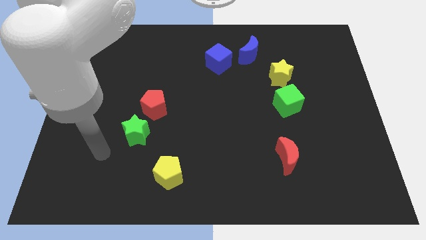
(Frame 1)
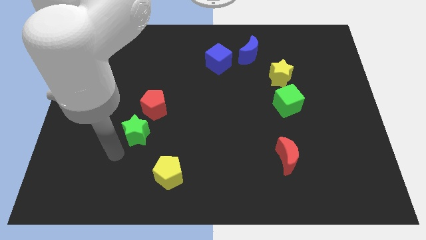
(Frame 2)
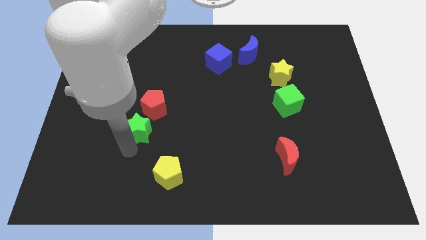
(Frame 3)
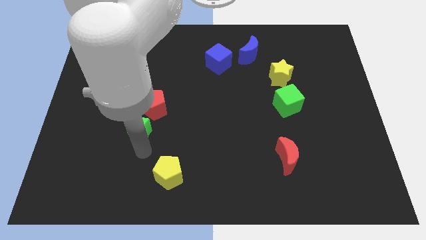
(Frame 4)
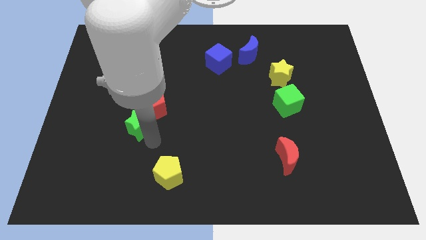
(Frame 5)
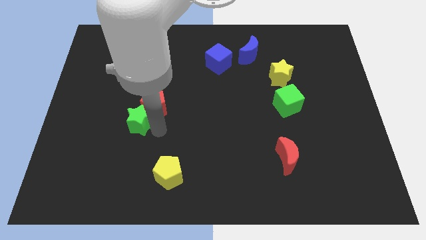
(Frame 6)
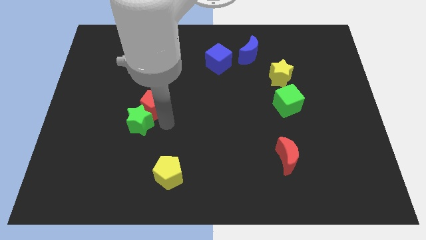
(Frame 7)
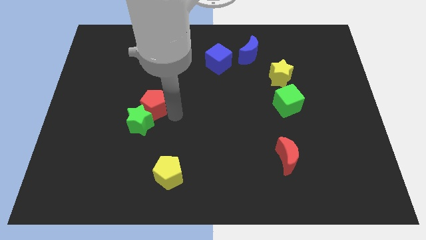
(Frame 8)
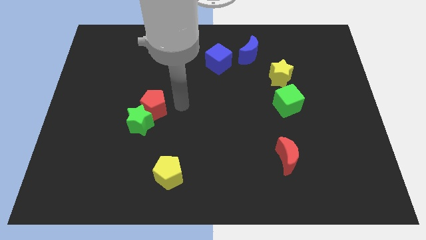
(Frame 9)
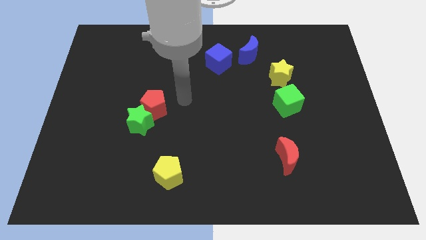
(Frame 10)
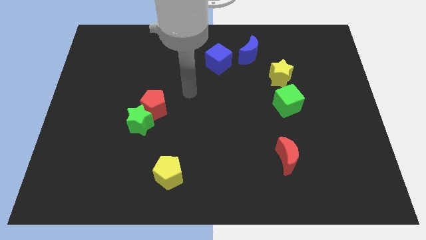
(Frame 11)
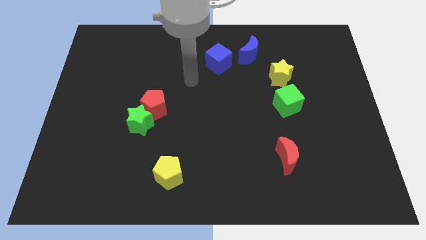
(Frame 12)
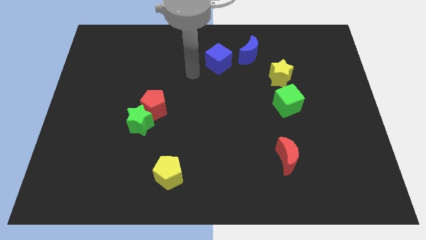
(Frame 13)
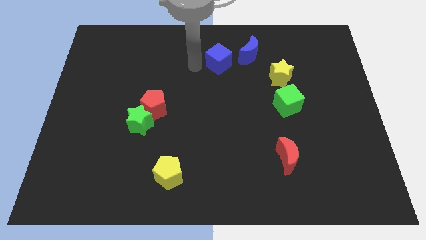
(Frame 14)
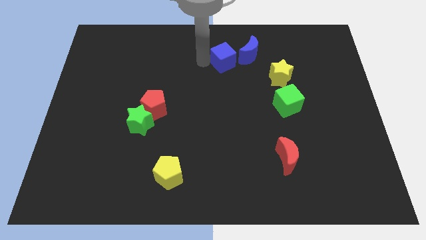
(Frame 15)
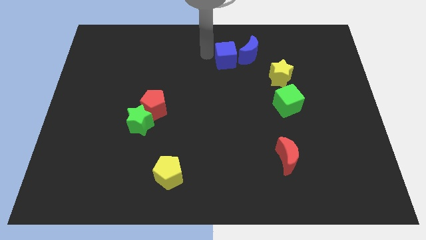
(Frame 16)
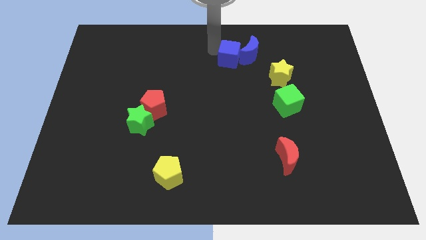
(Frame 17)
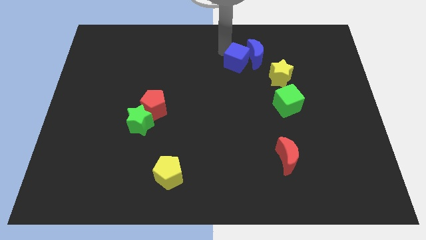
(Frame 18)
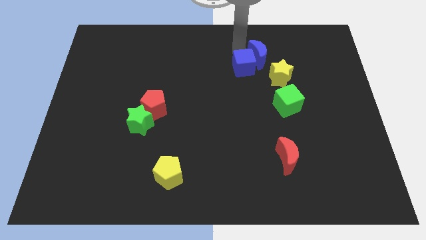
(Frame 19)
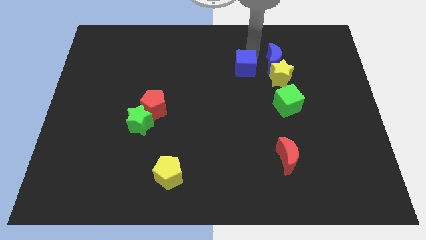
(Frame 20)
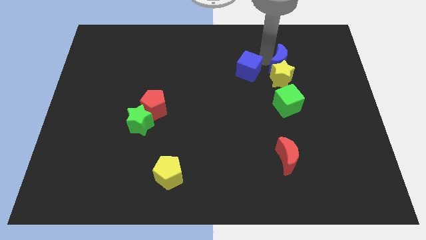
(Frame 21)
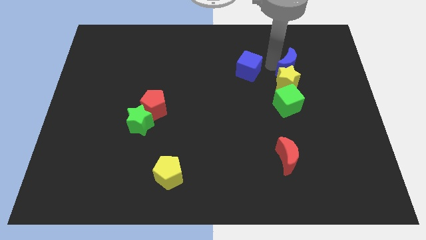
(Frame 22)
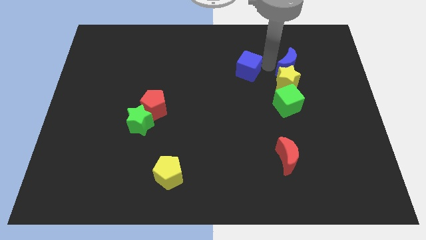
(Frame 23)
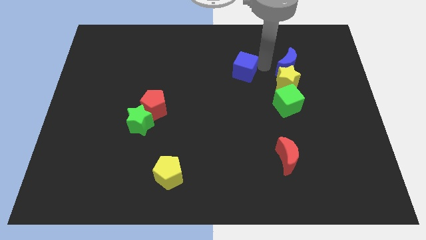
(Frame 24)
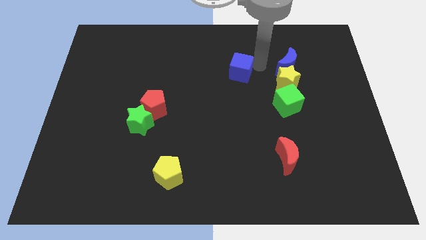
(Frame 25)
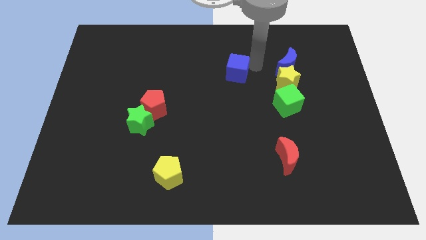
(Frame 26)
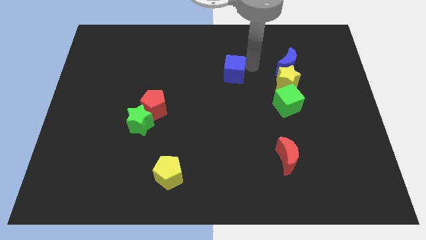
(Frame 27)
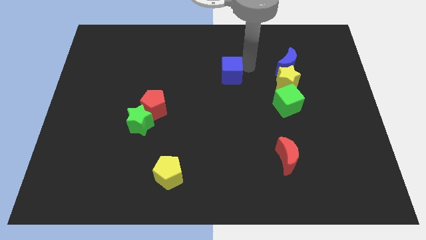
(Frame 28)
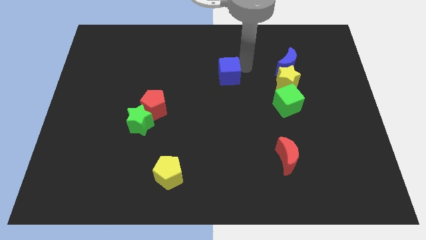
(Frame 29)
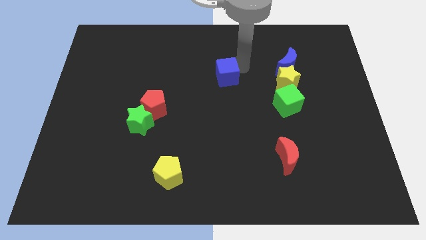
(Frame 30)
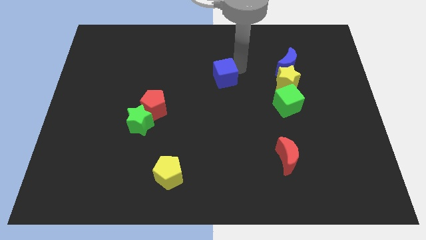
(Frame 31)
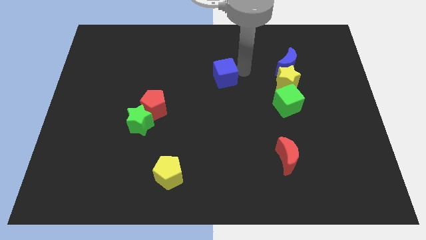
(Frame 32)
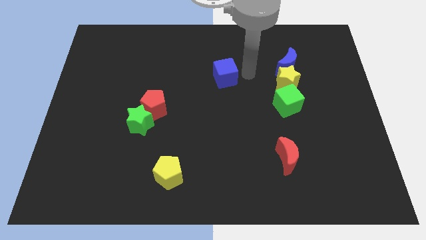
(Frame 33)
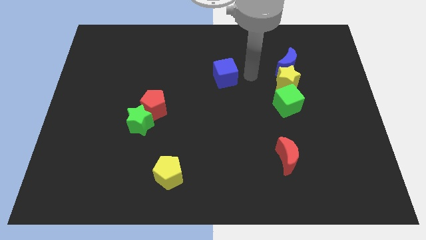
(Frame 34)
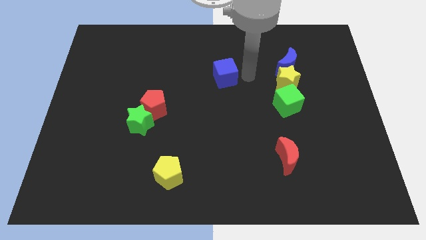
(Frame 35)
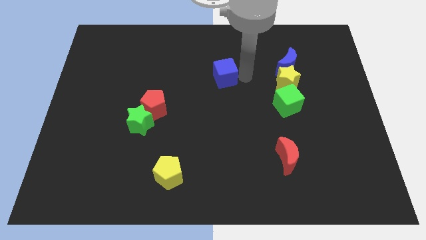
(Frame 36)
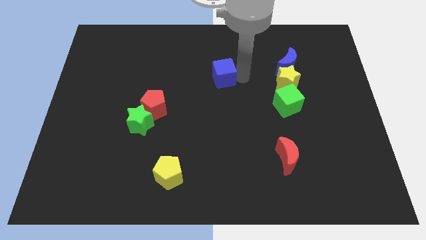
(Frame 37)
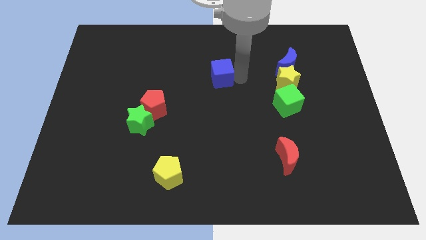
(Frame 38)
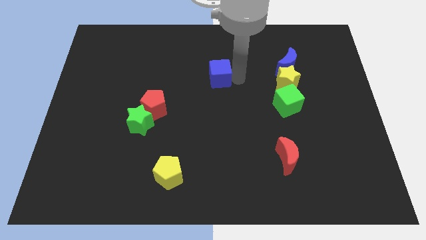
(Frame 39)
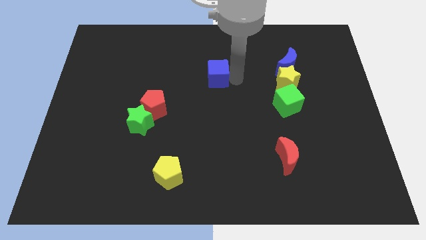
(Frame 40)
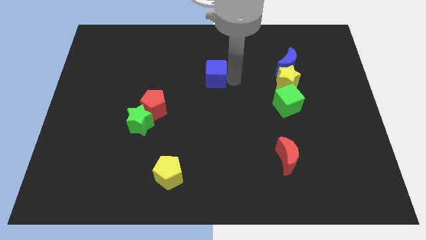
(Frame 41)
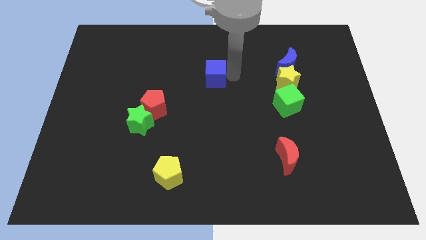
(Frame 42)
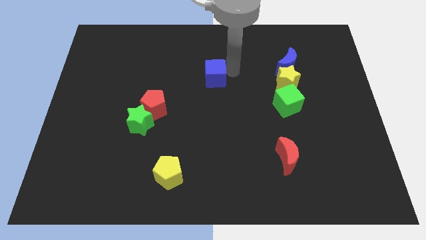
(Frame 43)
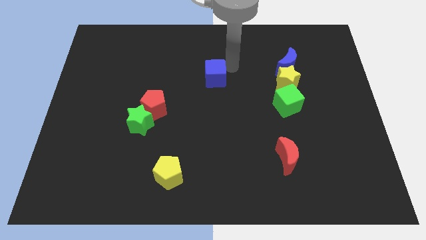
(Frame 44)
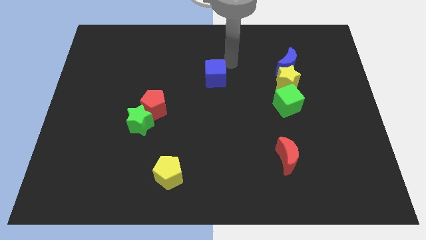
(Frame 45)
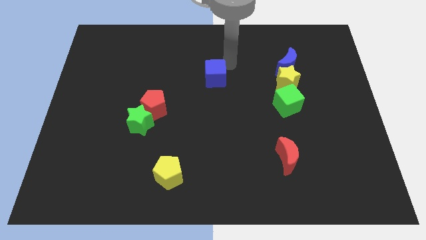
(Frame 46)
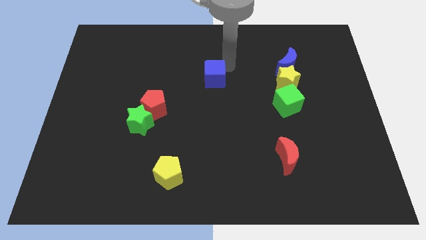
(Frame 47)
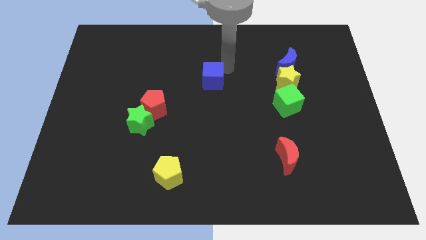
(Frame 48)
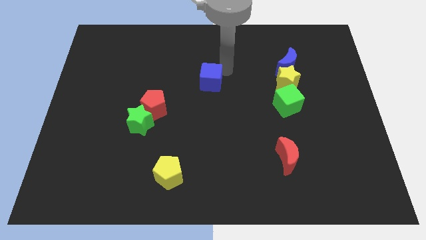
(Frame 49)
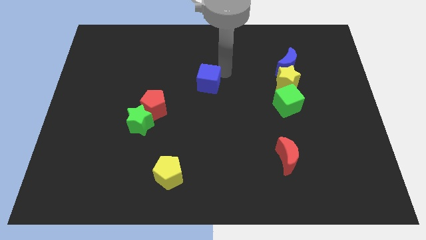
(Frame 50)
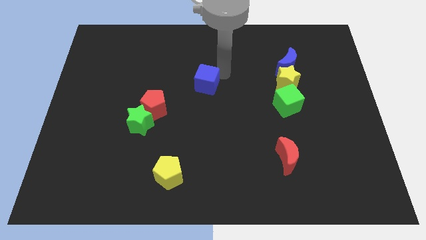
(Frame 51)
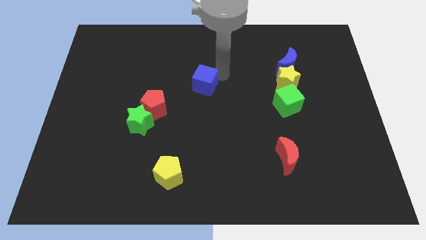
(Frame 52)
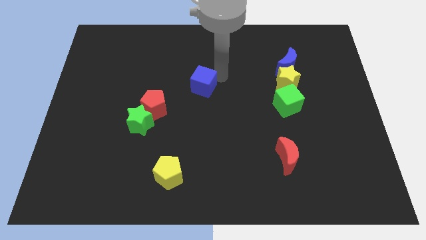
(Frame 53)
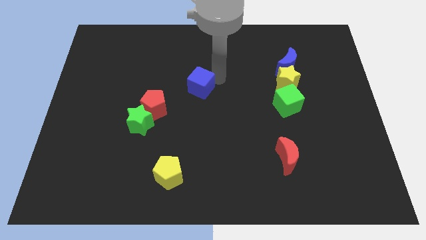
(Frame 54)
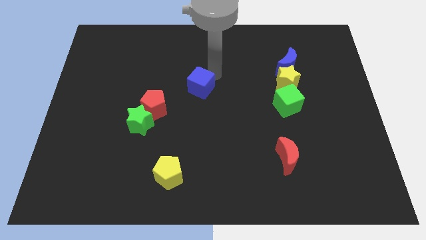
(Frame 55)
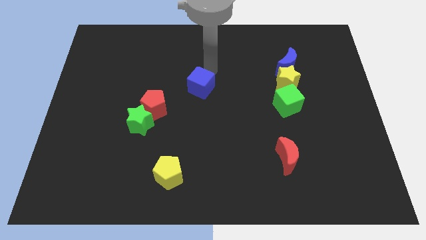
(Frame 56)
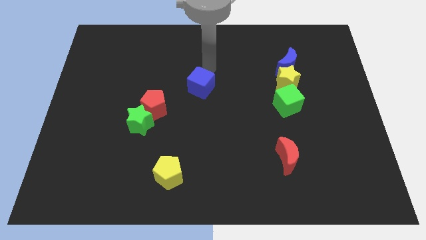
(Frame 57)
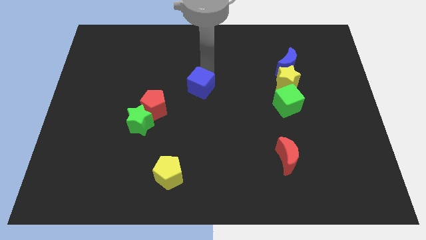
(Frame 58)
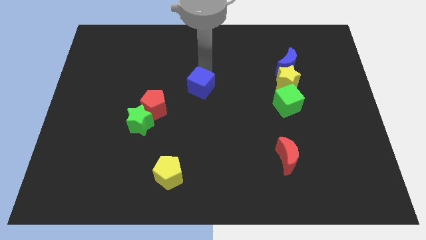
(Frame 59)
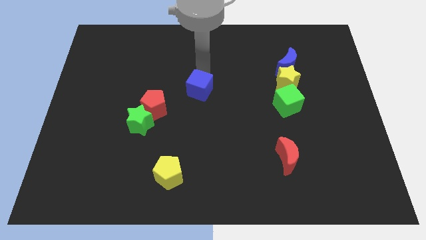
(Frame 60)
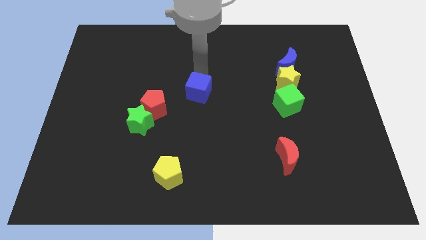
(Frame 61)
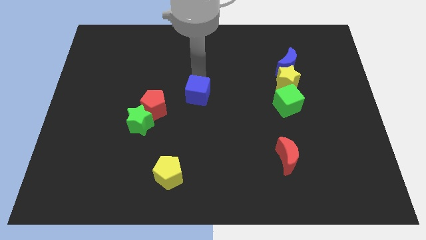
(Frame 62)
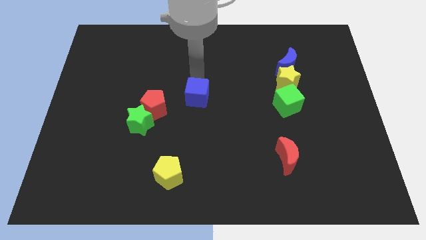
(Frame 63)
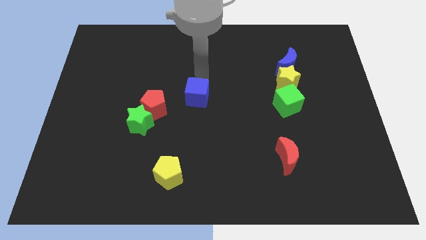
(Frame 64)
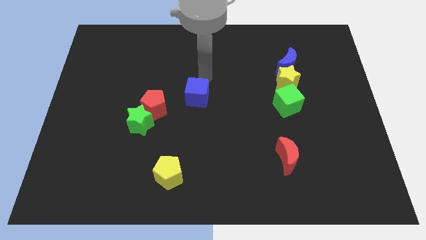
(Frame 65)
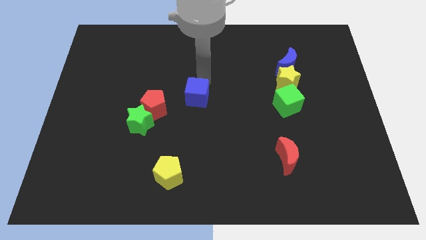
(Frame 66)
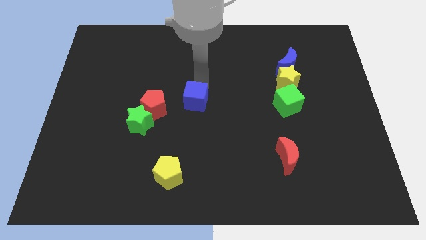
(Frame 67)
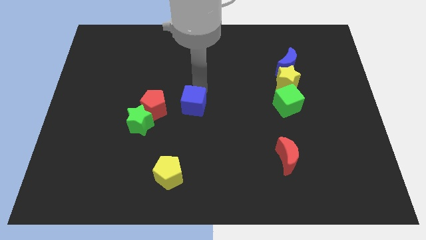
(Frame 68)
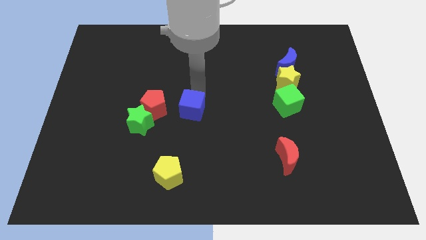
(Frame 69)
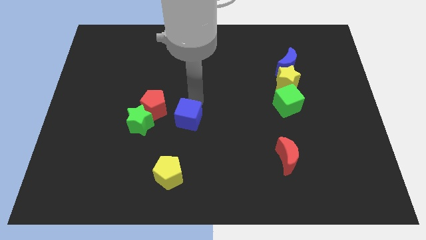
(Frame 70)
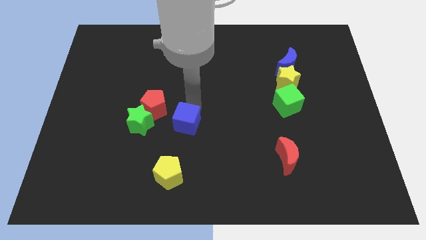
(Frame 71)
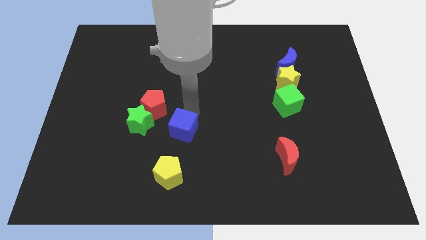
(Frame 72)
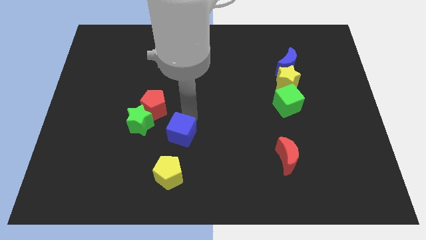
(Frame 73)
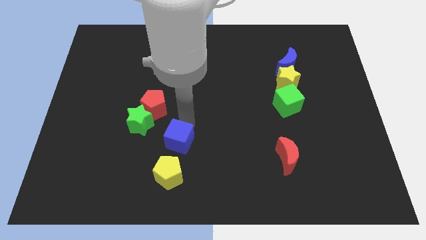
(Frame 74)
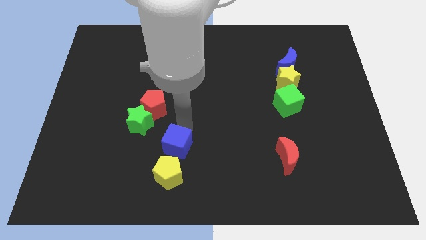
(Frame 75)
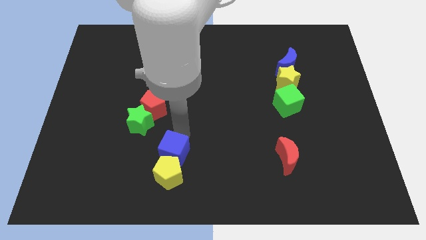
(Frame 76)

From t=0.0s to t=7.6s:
put the blue cube next to the yellow pentagon

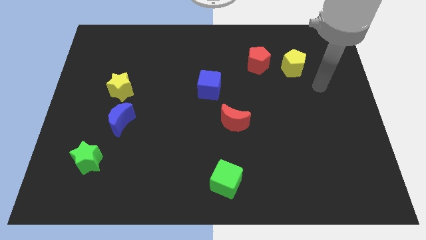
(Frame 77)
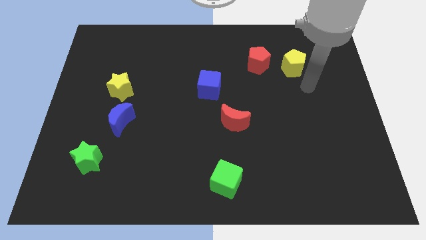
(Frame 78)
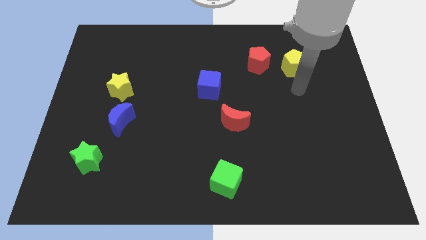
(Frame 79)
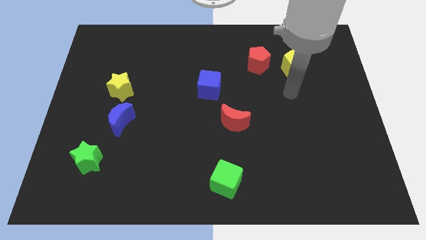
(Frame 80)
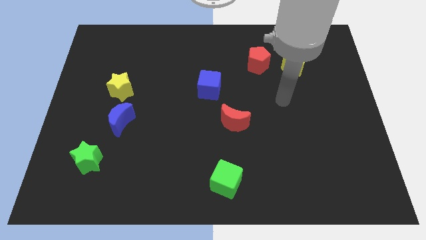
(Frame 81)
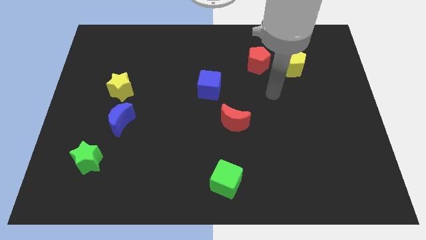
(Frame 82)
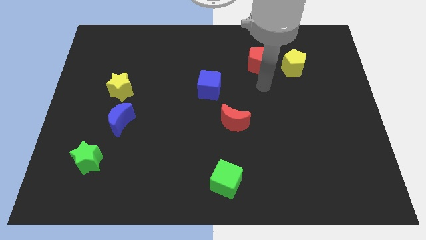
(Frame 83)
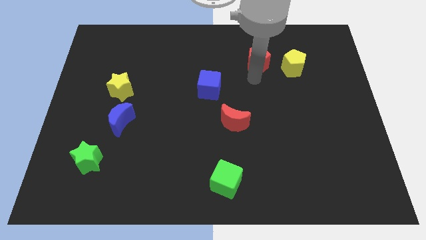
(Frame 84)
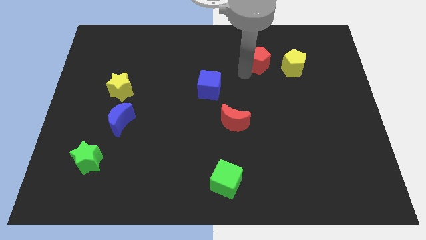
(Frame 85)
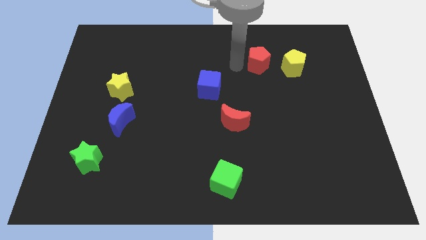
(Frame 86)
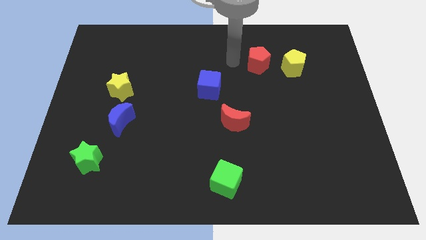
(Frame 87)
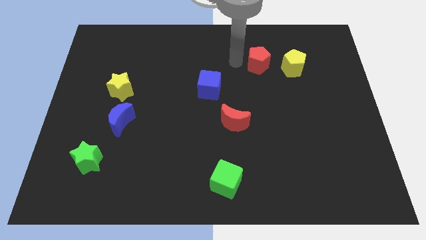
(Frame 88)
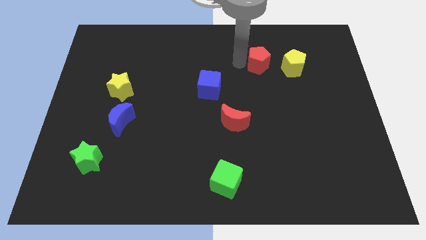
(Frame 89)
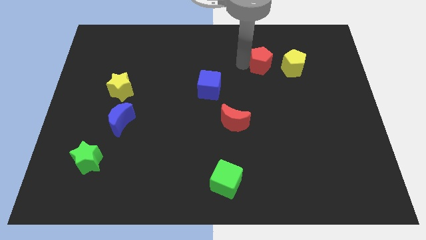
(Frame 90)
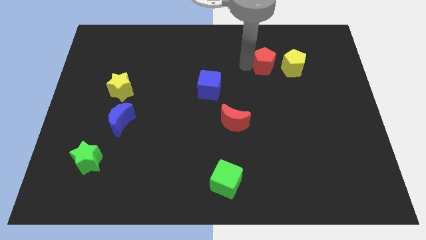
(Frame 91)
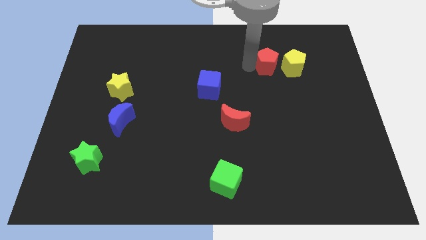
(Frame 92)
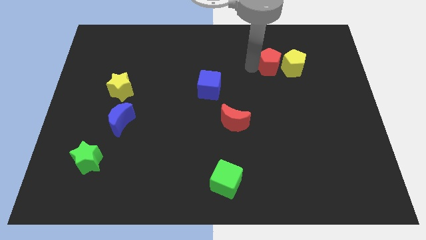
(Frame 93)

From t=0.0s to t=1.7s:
slide the red pentagon towards the yellow pentagon
